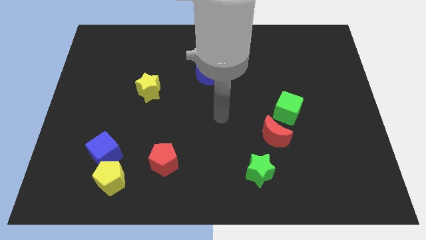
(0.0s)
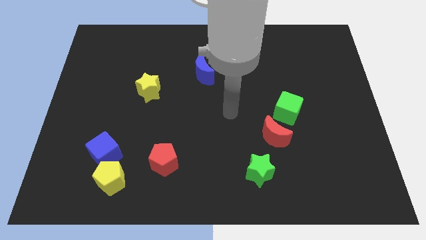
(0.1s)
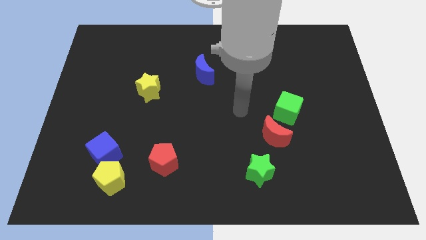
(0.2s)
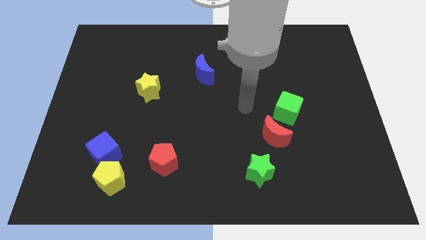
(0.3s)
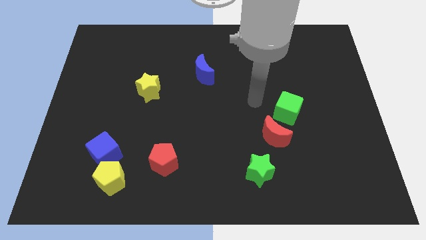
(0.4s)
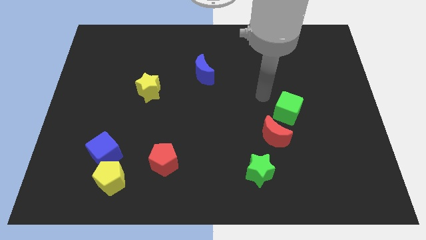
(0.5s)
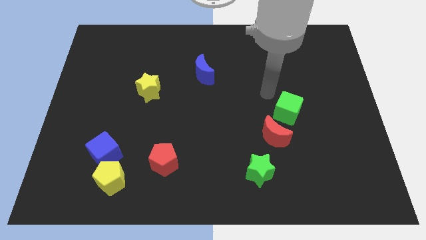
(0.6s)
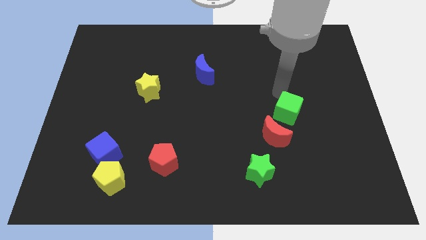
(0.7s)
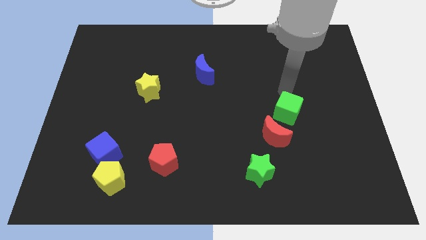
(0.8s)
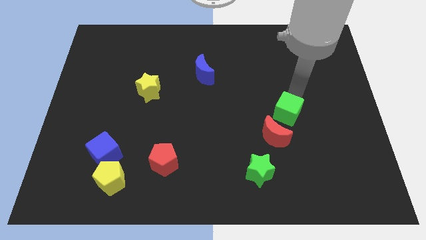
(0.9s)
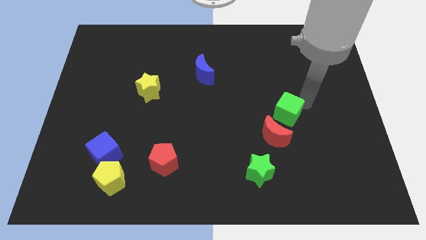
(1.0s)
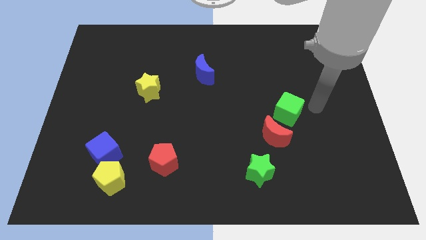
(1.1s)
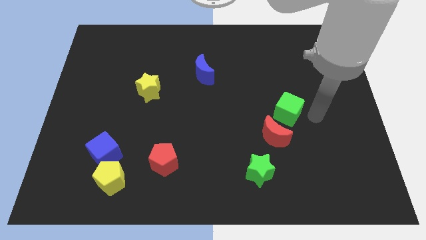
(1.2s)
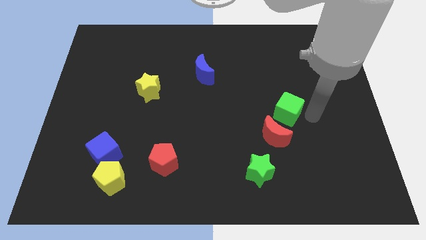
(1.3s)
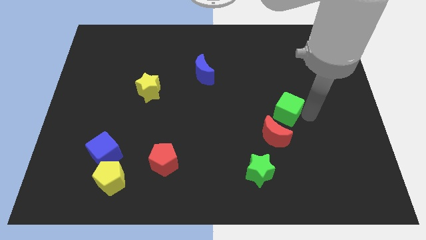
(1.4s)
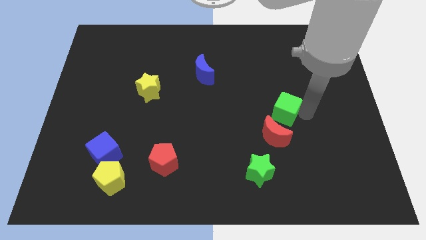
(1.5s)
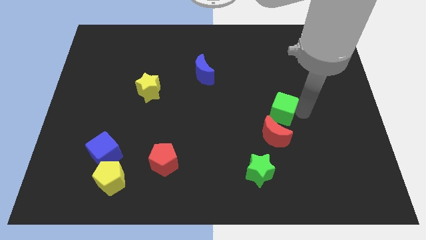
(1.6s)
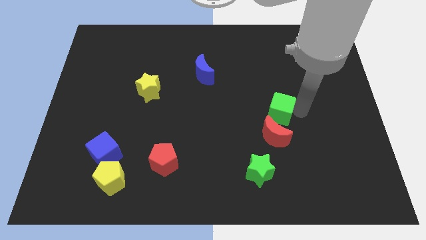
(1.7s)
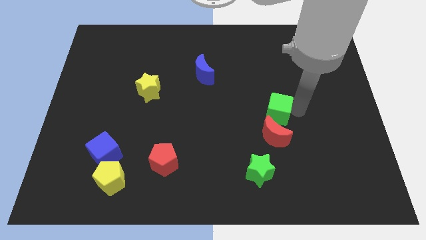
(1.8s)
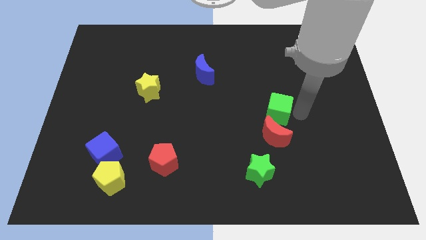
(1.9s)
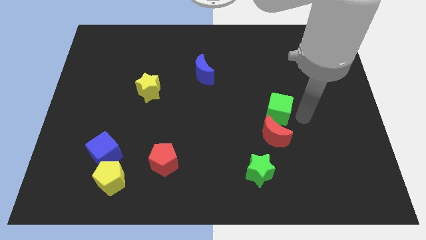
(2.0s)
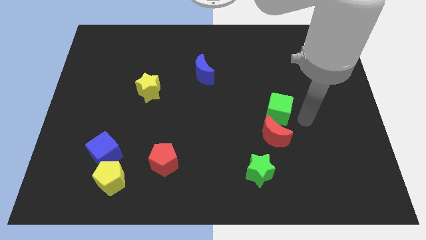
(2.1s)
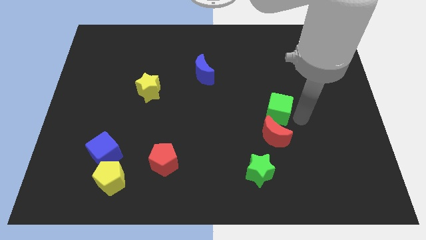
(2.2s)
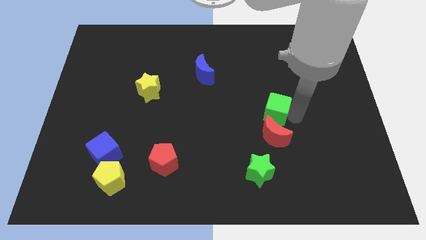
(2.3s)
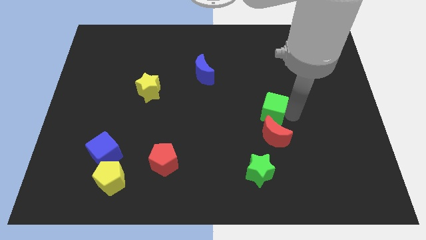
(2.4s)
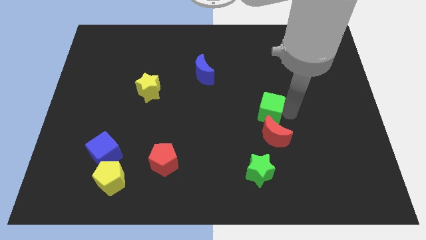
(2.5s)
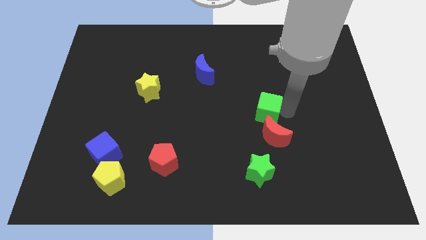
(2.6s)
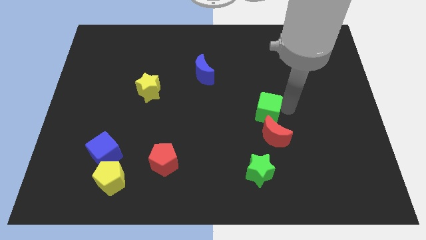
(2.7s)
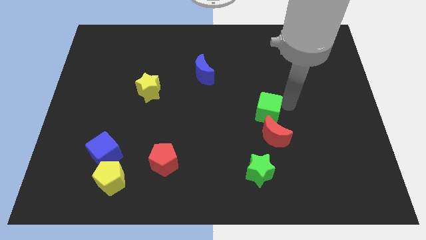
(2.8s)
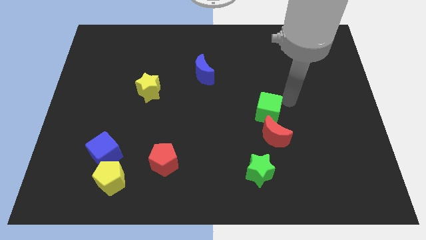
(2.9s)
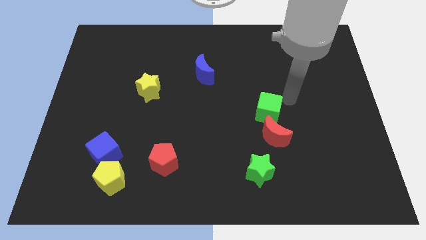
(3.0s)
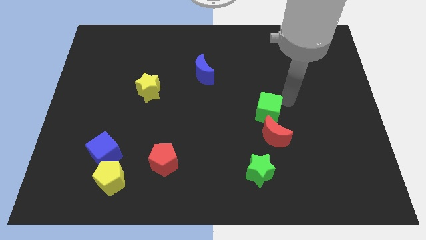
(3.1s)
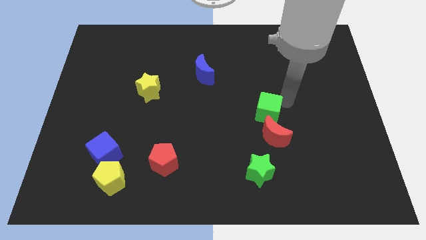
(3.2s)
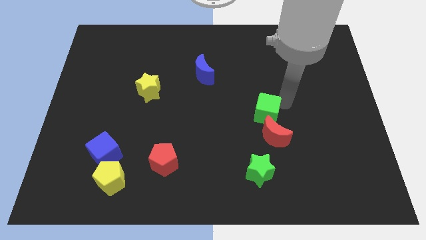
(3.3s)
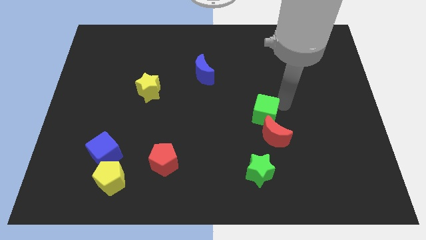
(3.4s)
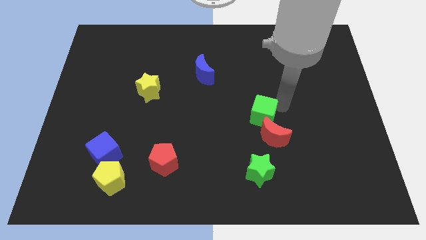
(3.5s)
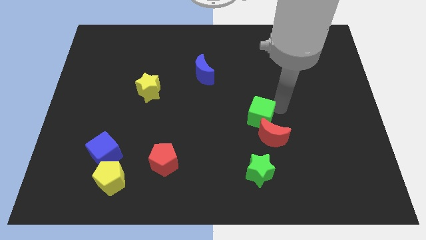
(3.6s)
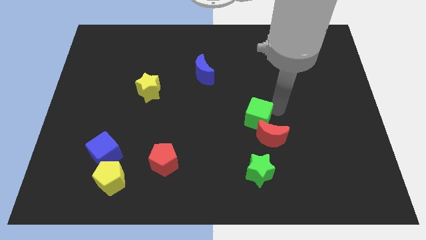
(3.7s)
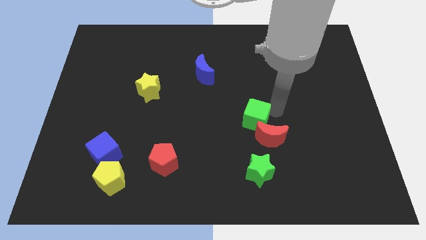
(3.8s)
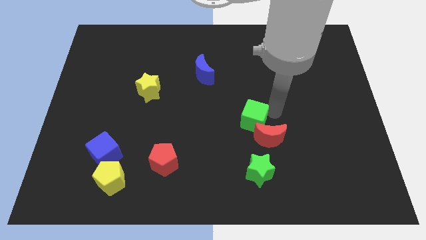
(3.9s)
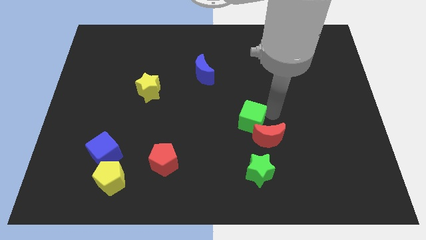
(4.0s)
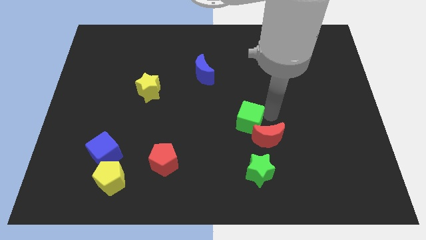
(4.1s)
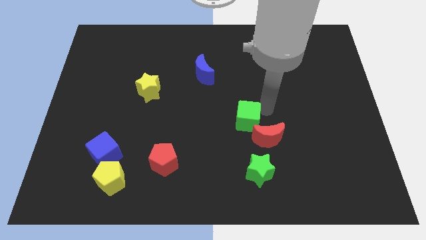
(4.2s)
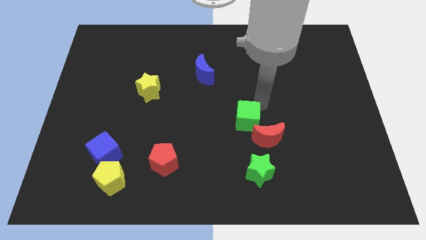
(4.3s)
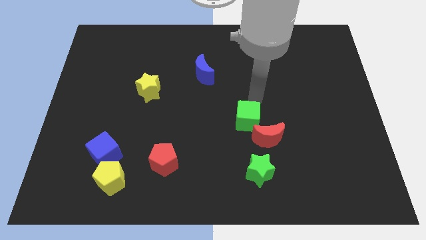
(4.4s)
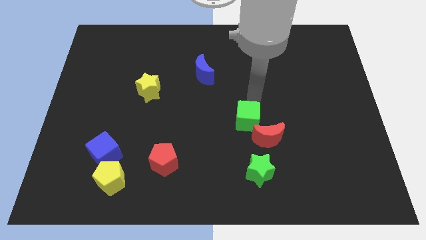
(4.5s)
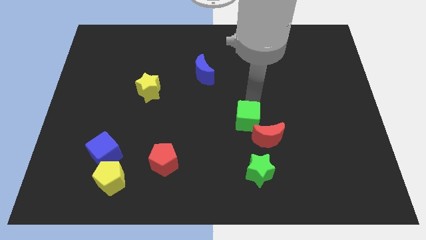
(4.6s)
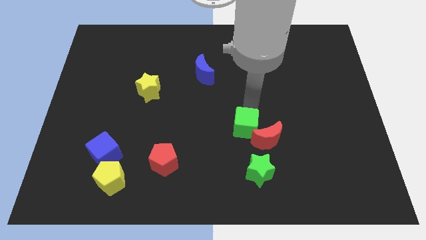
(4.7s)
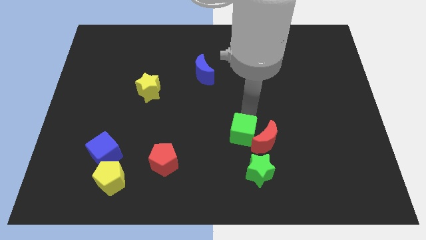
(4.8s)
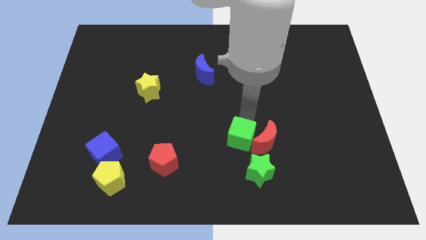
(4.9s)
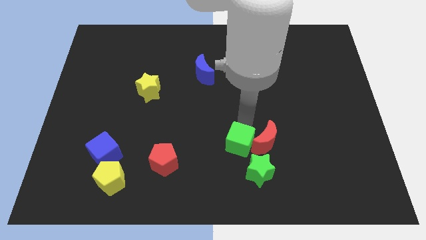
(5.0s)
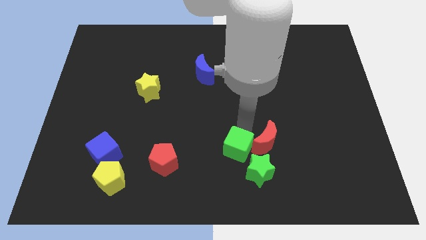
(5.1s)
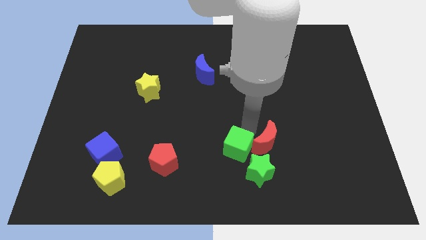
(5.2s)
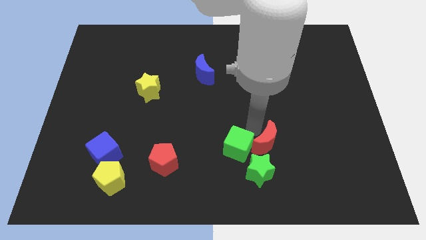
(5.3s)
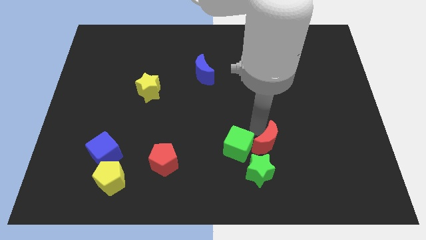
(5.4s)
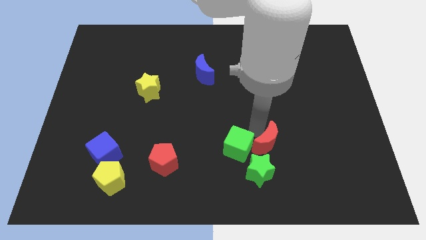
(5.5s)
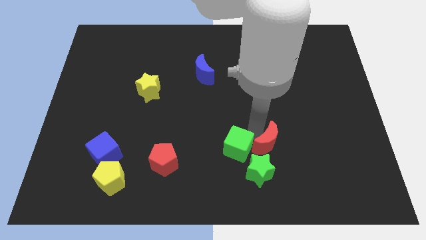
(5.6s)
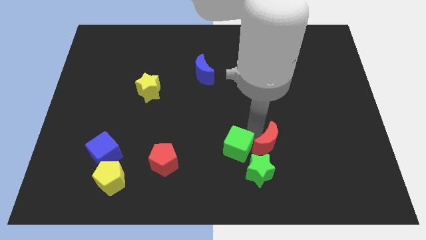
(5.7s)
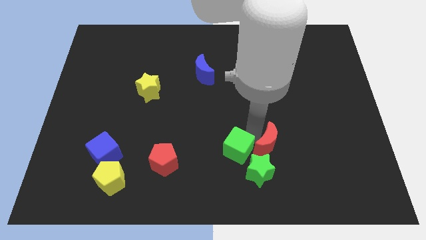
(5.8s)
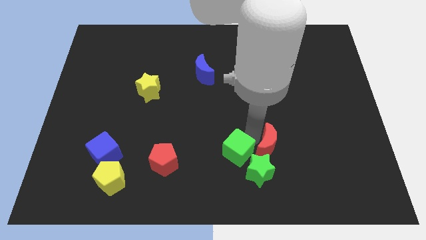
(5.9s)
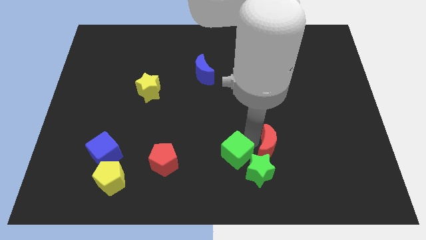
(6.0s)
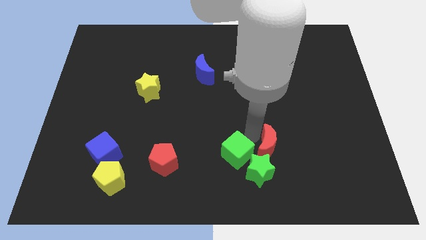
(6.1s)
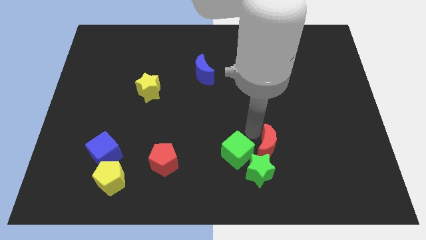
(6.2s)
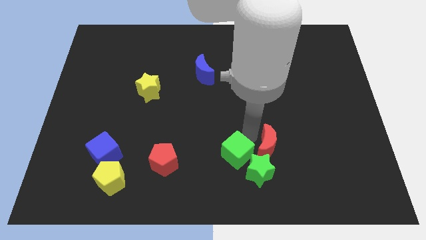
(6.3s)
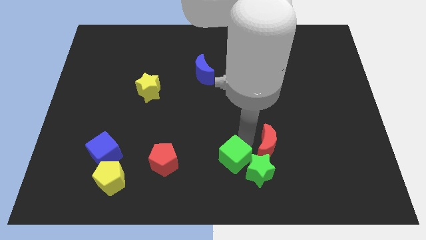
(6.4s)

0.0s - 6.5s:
move the green cube to the bottom
